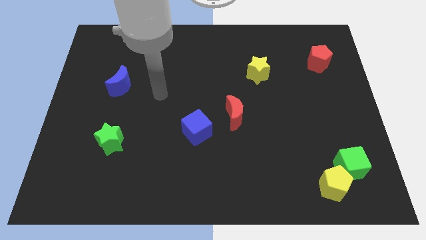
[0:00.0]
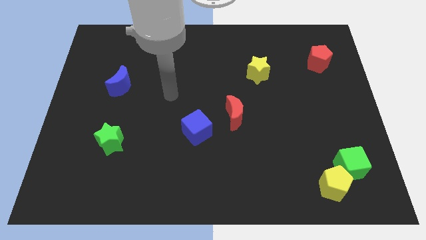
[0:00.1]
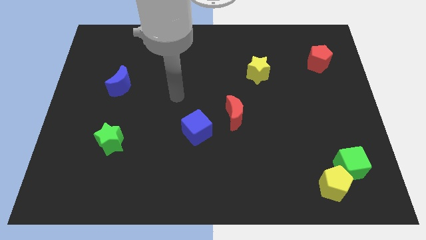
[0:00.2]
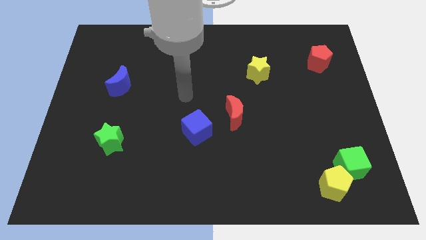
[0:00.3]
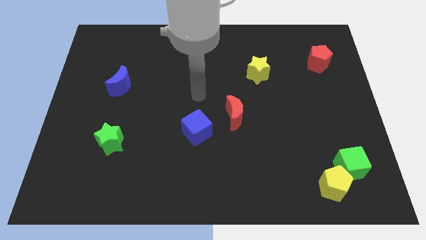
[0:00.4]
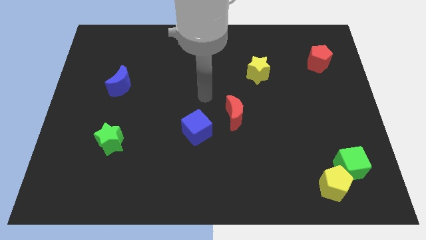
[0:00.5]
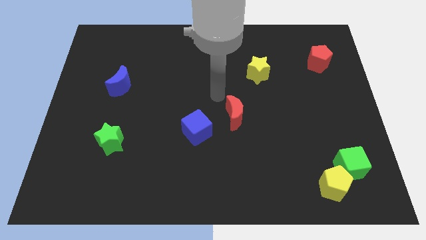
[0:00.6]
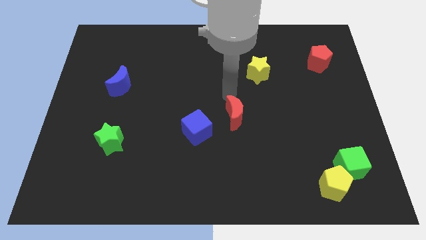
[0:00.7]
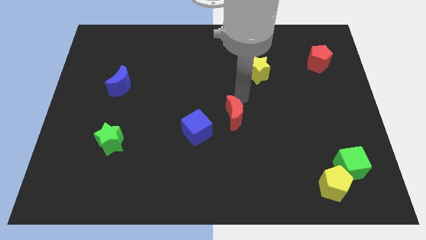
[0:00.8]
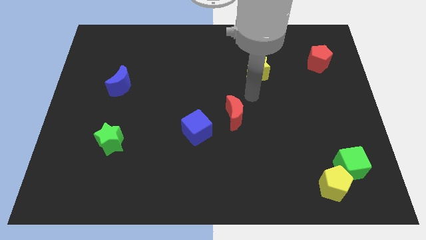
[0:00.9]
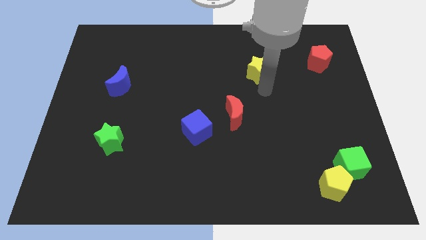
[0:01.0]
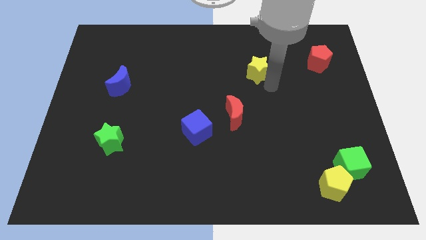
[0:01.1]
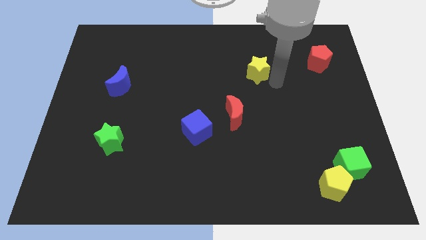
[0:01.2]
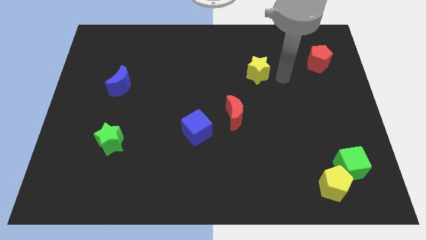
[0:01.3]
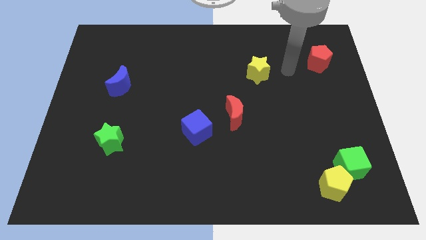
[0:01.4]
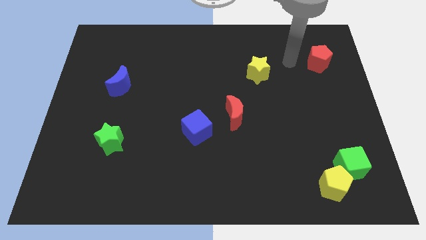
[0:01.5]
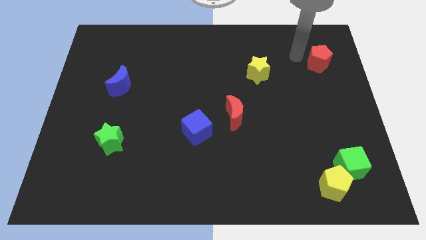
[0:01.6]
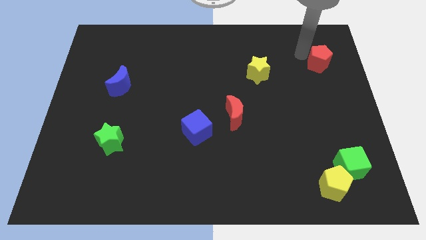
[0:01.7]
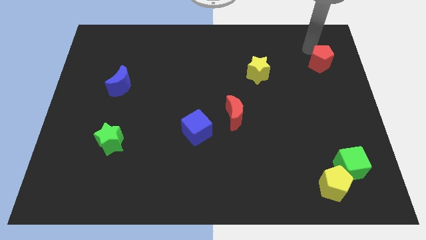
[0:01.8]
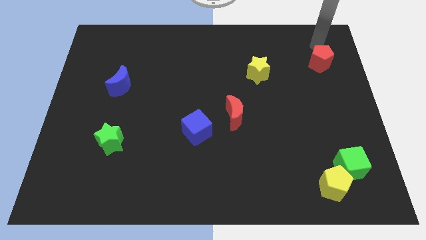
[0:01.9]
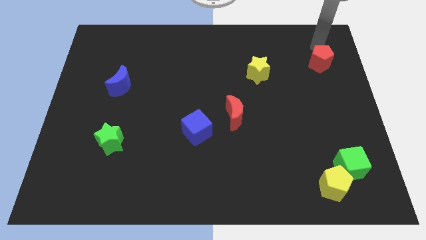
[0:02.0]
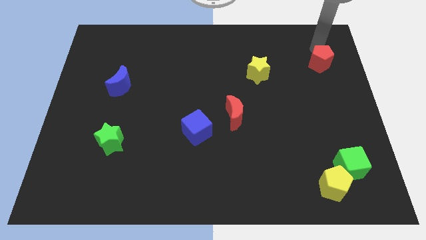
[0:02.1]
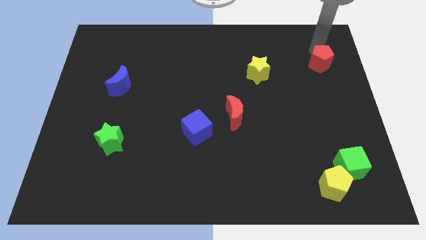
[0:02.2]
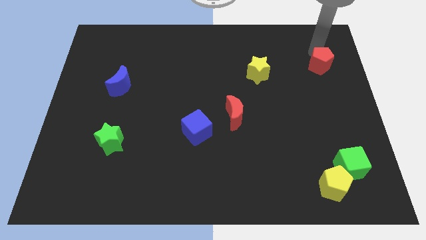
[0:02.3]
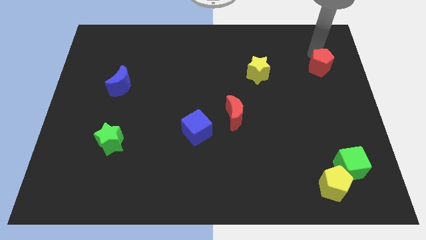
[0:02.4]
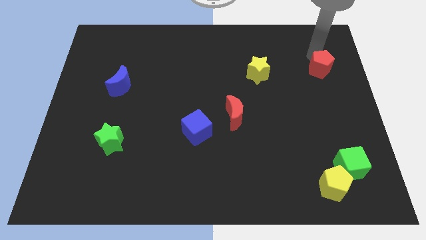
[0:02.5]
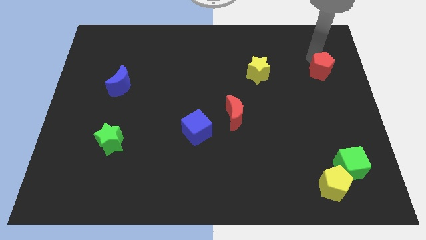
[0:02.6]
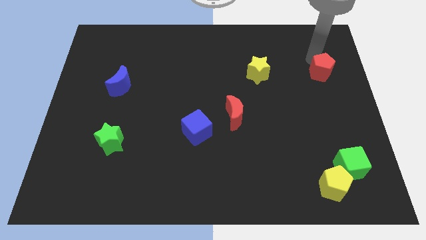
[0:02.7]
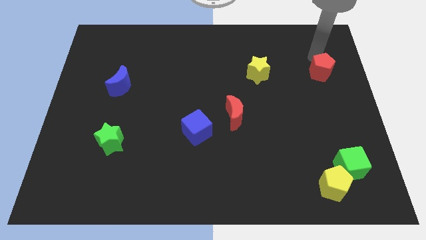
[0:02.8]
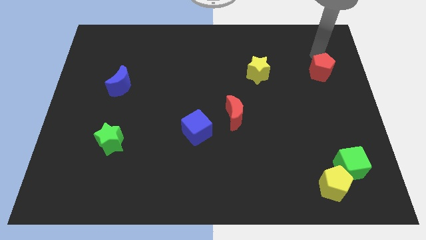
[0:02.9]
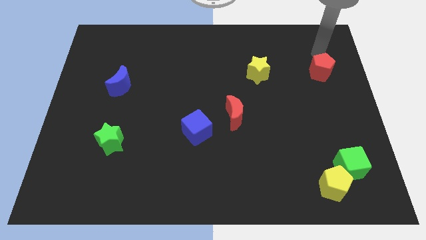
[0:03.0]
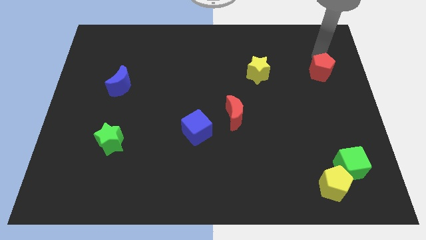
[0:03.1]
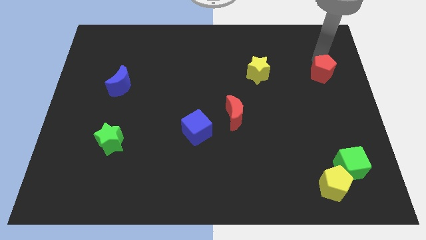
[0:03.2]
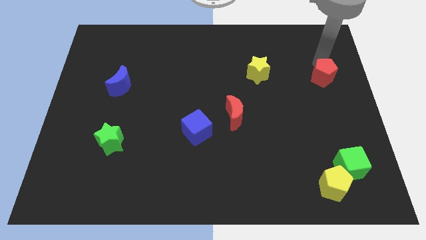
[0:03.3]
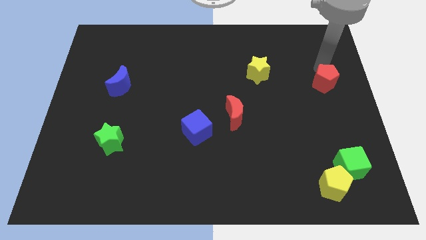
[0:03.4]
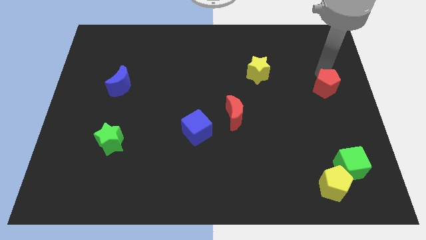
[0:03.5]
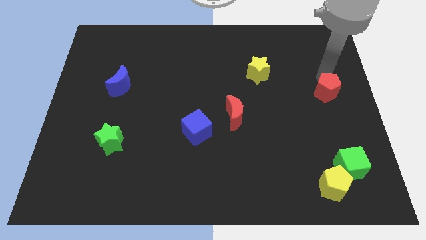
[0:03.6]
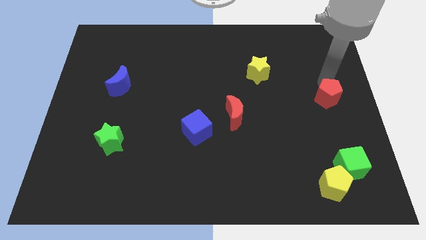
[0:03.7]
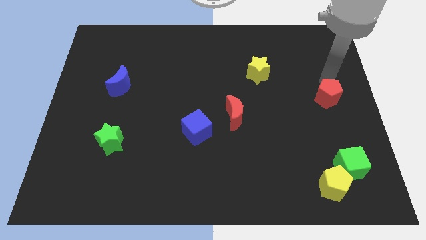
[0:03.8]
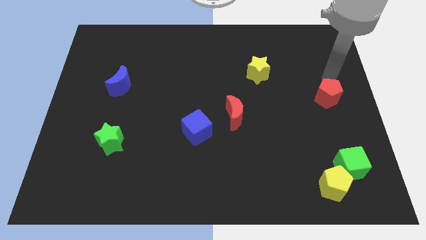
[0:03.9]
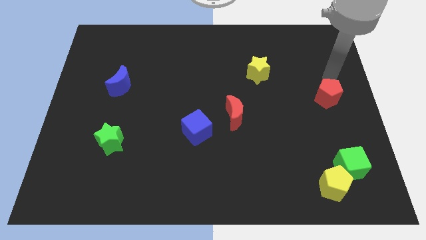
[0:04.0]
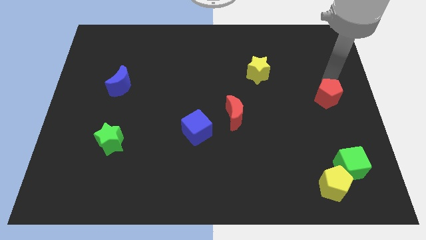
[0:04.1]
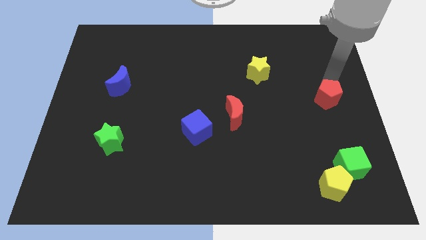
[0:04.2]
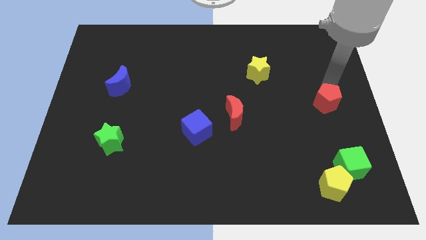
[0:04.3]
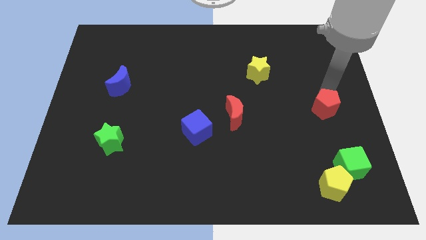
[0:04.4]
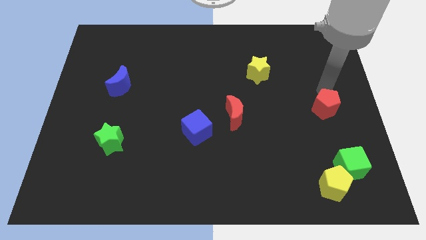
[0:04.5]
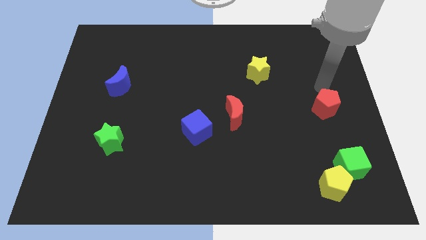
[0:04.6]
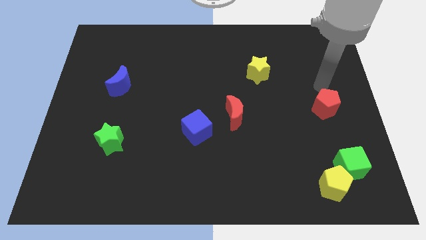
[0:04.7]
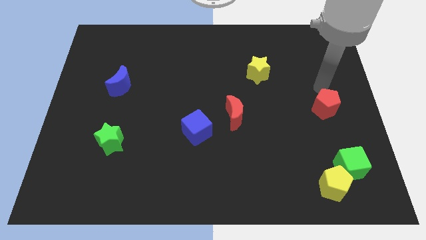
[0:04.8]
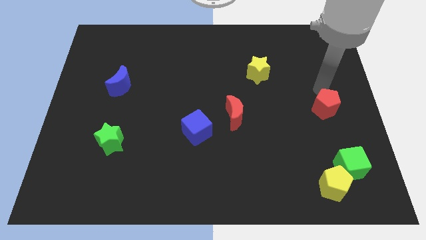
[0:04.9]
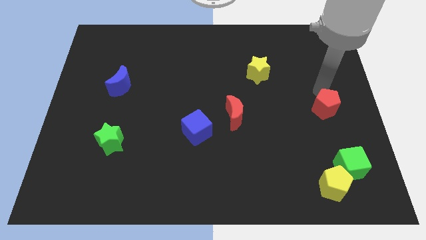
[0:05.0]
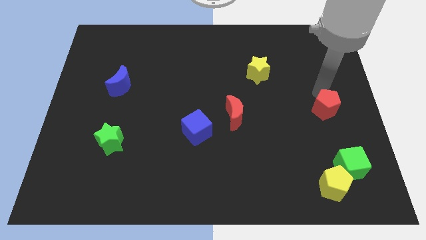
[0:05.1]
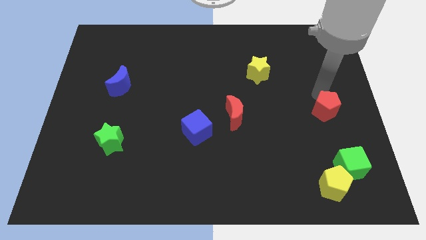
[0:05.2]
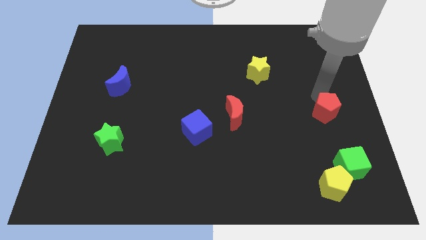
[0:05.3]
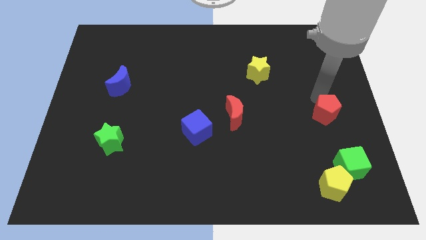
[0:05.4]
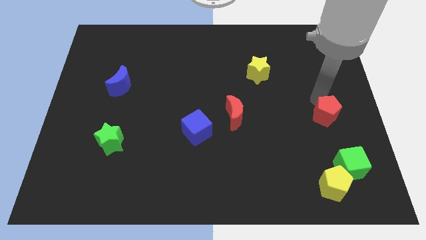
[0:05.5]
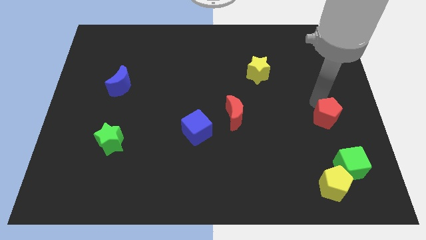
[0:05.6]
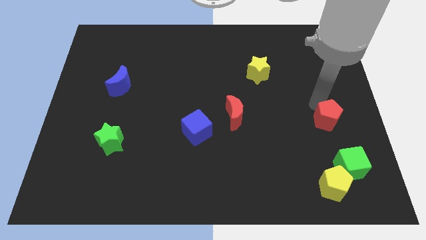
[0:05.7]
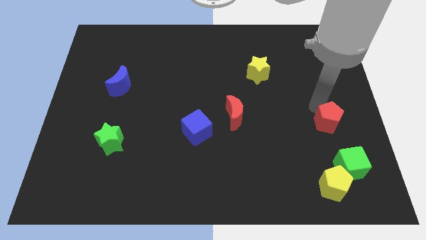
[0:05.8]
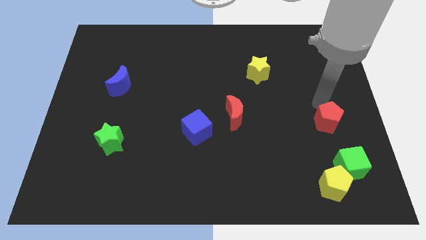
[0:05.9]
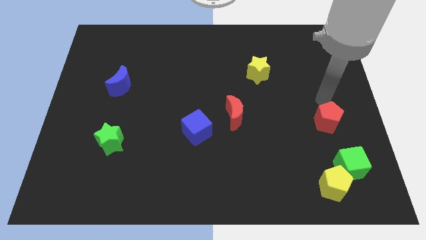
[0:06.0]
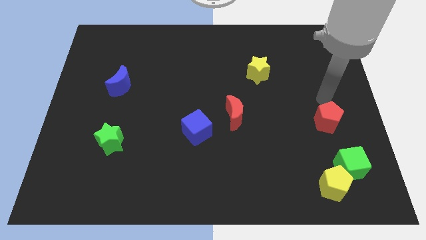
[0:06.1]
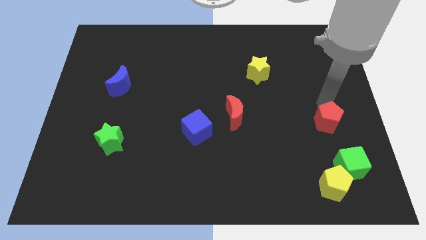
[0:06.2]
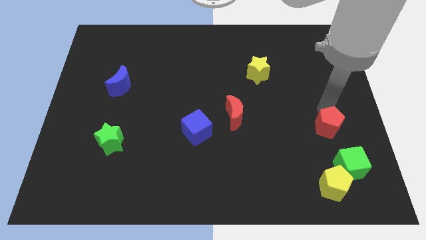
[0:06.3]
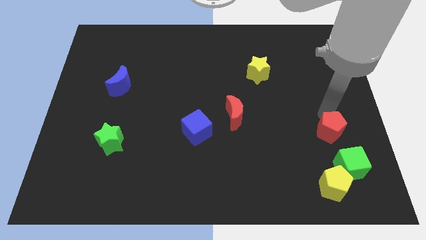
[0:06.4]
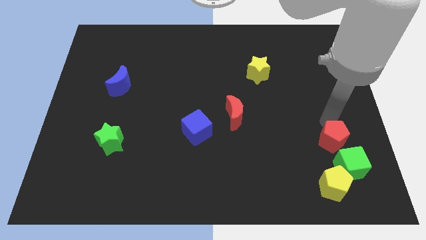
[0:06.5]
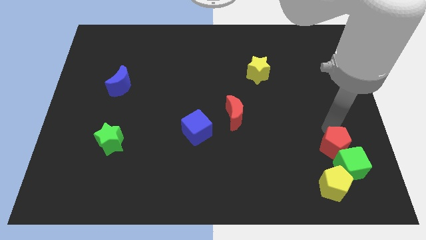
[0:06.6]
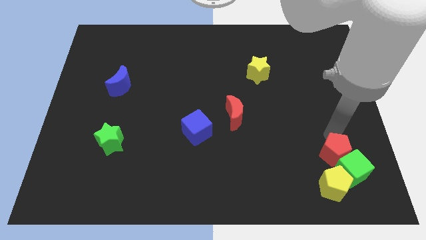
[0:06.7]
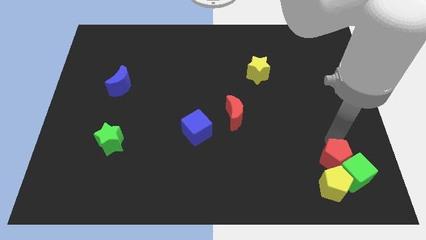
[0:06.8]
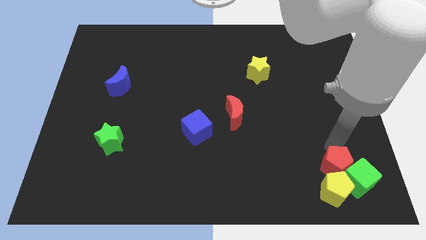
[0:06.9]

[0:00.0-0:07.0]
move the red pentagon close to the yellow pentagon
